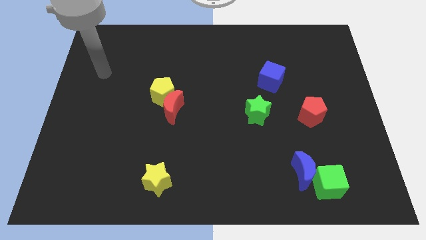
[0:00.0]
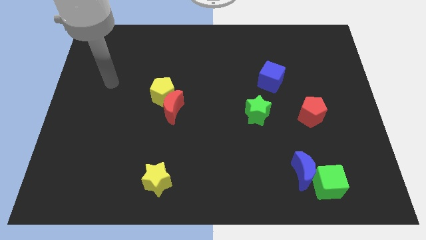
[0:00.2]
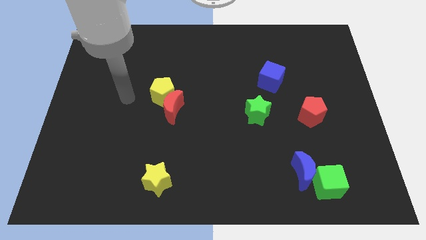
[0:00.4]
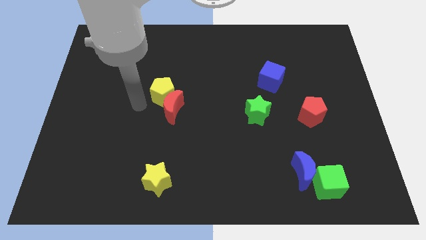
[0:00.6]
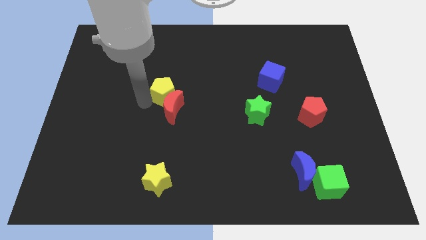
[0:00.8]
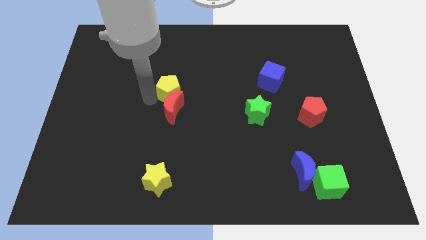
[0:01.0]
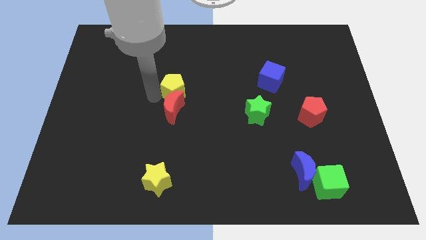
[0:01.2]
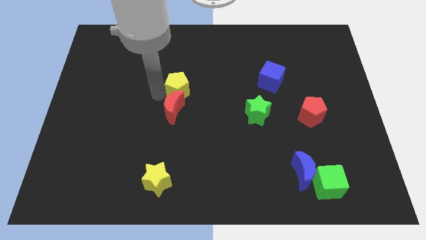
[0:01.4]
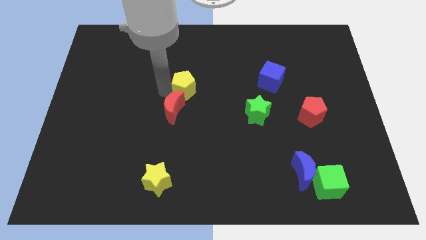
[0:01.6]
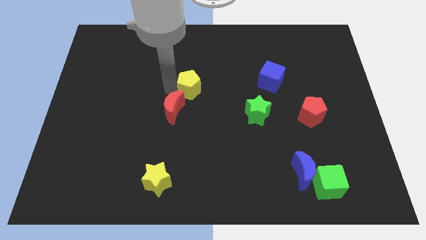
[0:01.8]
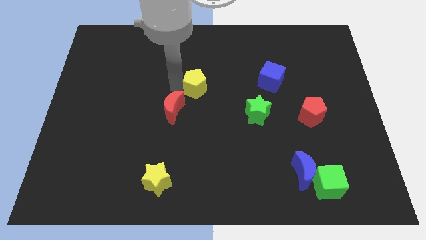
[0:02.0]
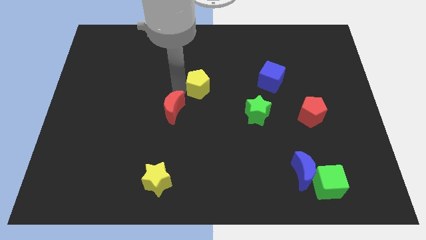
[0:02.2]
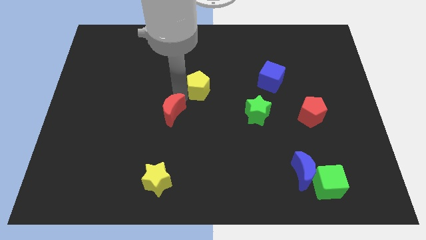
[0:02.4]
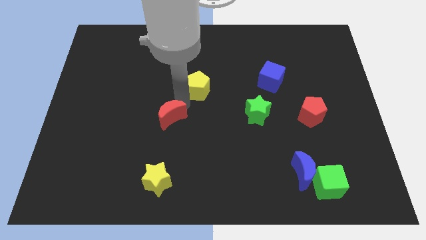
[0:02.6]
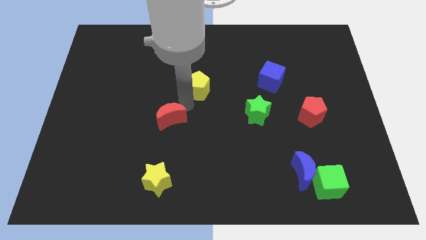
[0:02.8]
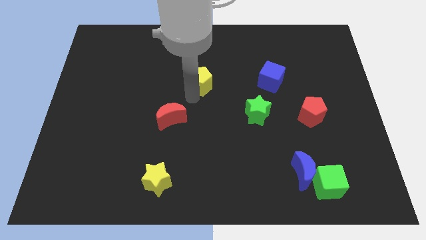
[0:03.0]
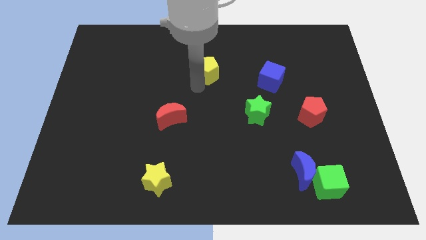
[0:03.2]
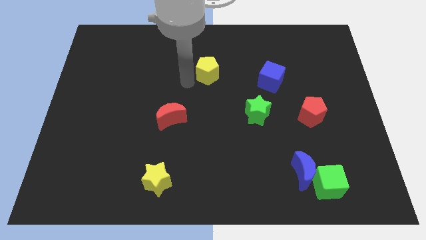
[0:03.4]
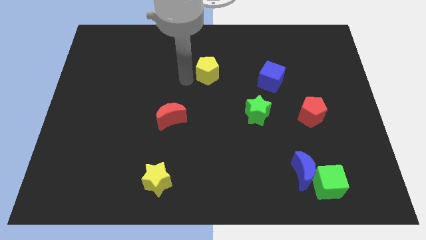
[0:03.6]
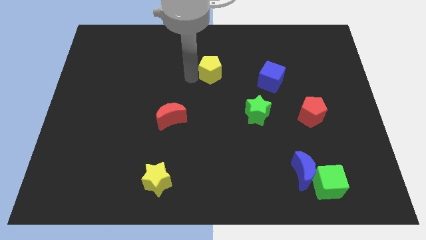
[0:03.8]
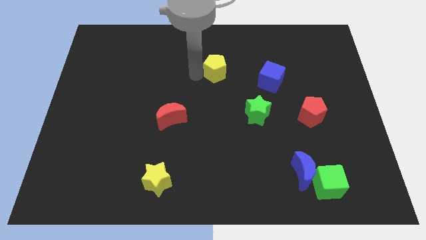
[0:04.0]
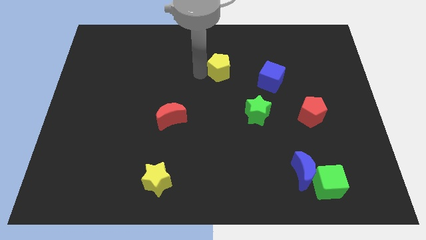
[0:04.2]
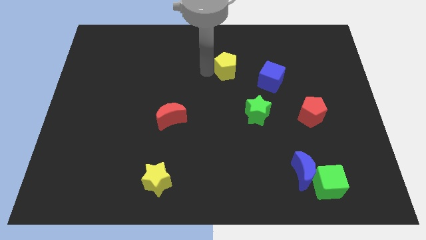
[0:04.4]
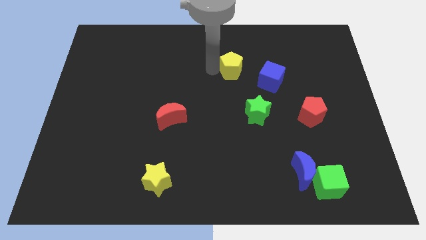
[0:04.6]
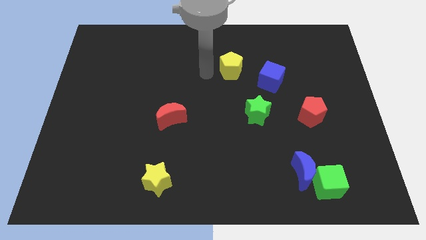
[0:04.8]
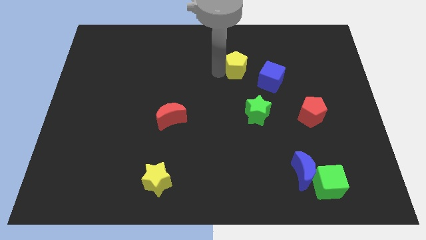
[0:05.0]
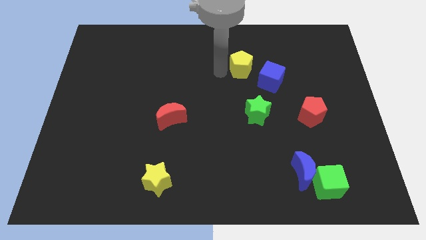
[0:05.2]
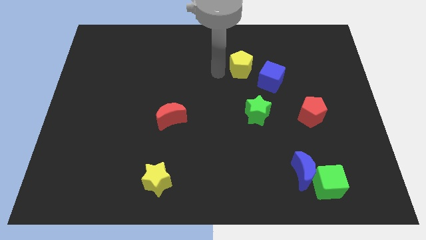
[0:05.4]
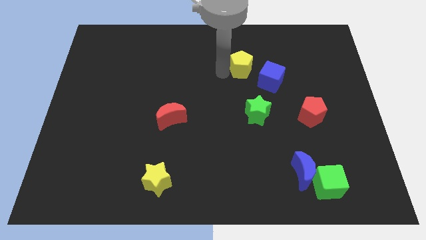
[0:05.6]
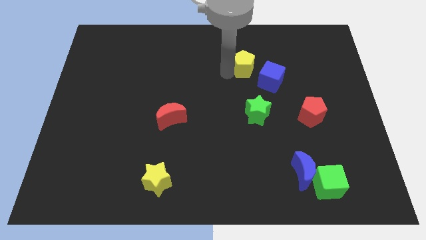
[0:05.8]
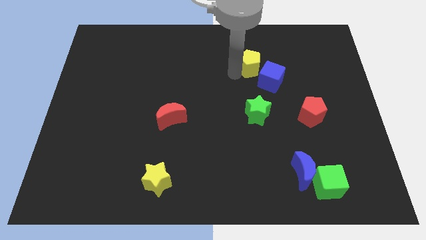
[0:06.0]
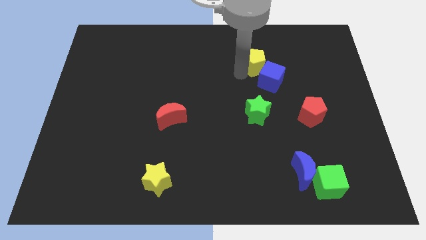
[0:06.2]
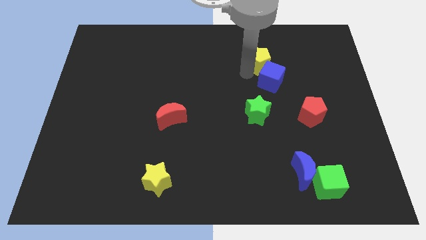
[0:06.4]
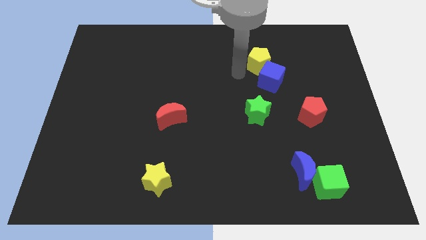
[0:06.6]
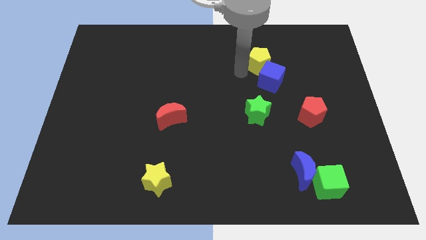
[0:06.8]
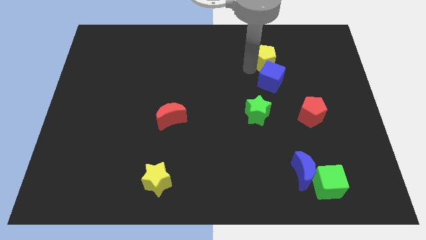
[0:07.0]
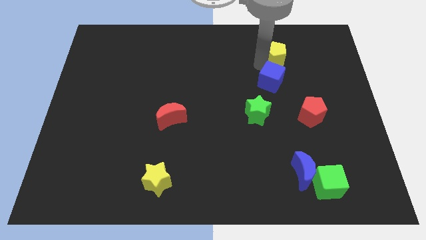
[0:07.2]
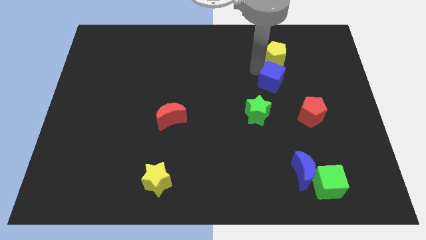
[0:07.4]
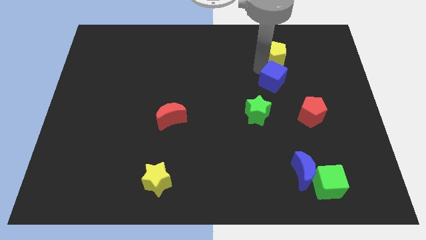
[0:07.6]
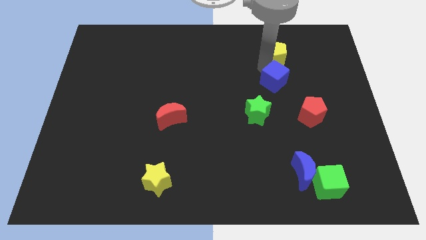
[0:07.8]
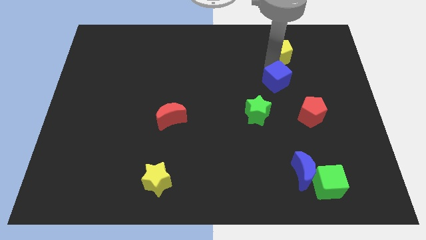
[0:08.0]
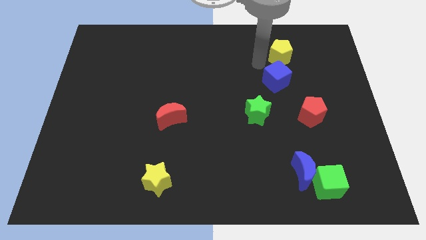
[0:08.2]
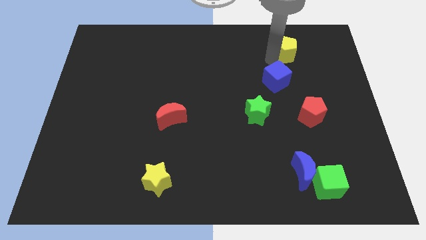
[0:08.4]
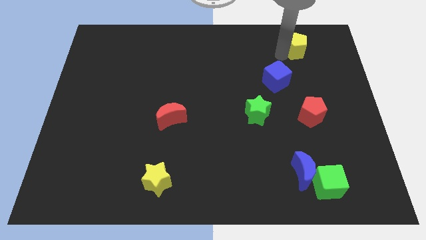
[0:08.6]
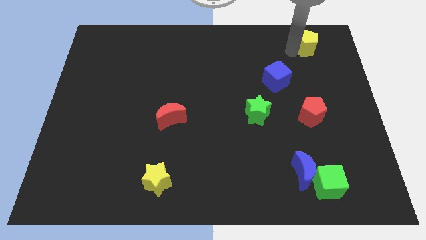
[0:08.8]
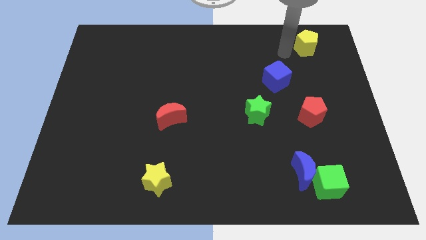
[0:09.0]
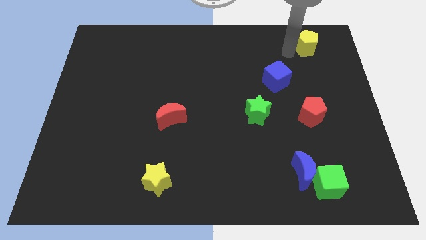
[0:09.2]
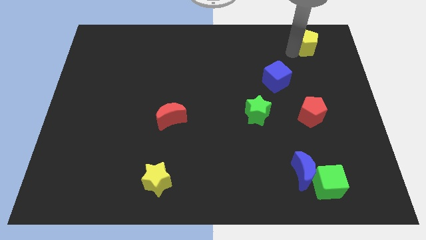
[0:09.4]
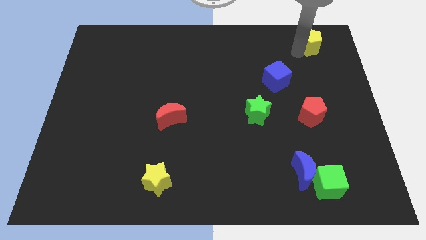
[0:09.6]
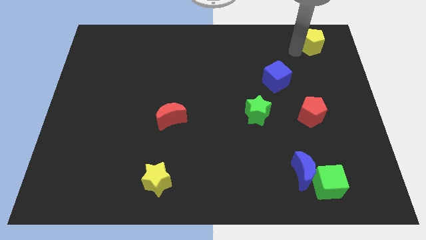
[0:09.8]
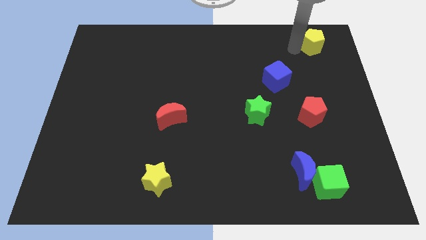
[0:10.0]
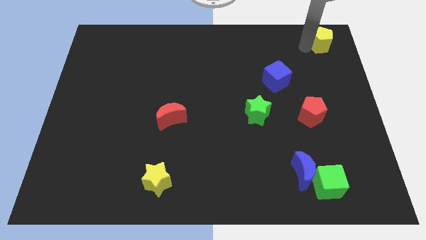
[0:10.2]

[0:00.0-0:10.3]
put the yellow pentagon to the top right of the board

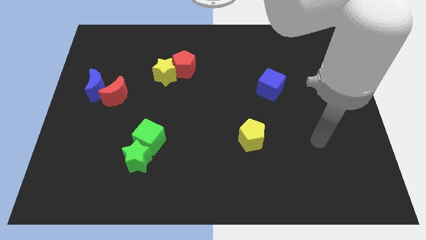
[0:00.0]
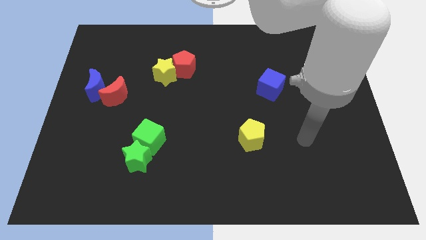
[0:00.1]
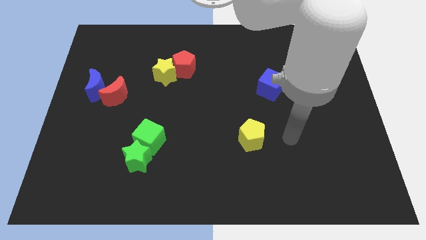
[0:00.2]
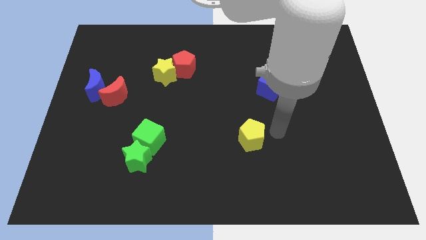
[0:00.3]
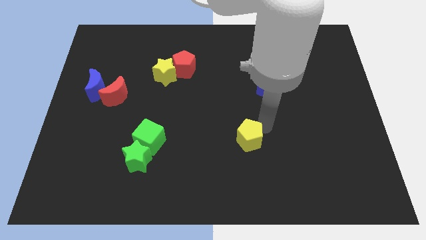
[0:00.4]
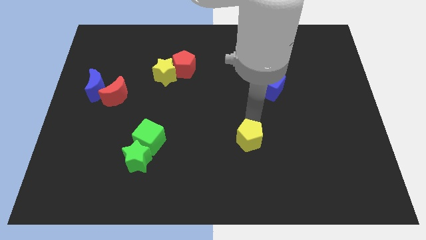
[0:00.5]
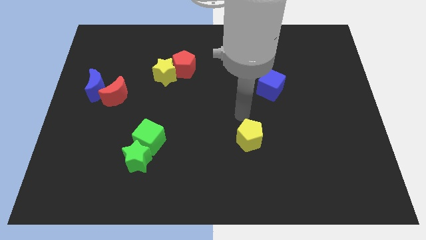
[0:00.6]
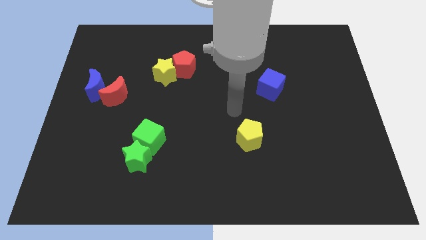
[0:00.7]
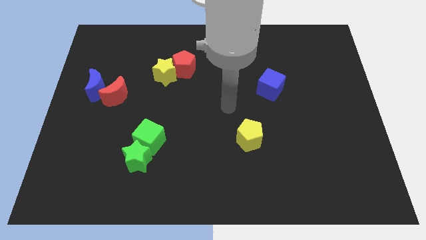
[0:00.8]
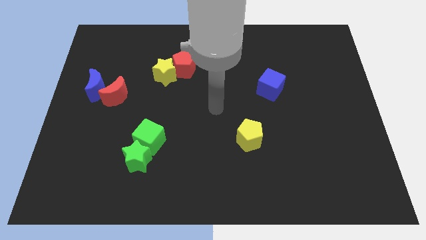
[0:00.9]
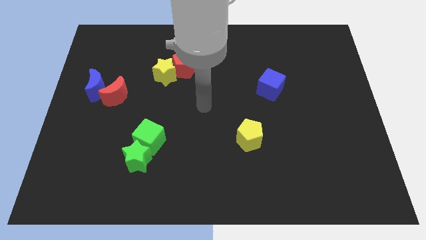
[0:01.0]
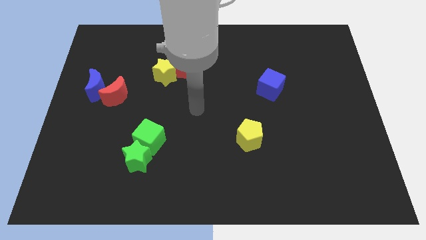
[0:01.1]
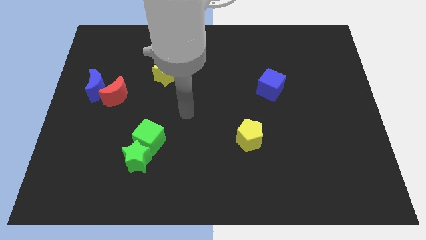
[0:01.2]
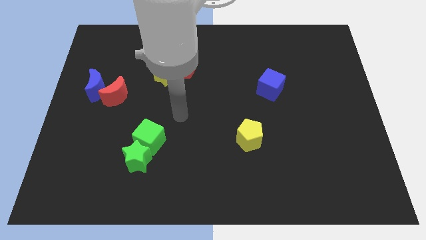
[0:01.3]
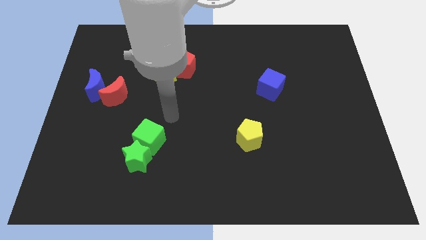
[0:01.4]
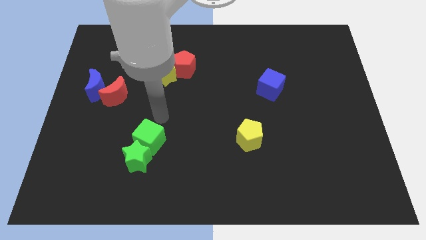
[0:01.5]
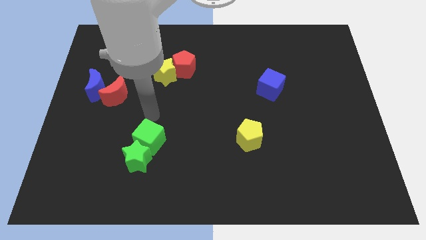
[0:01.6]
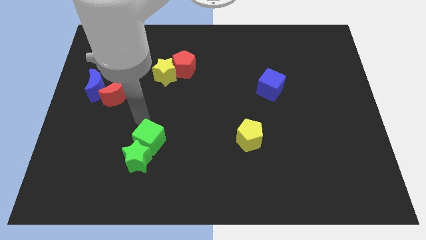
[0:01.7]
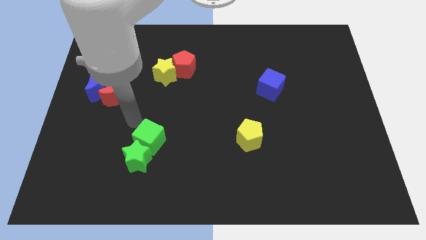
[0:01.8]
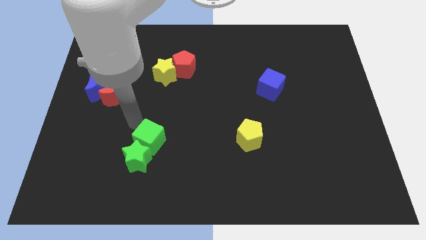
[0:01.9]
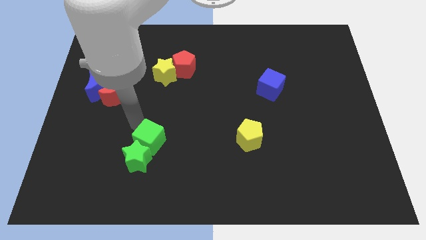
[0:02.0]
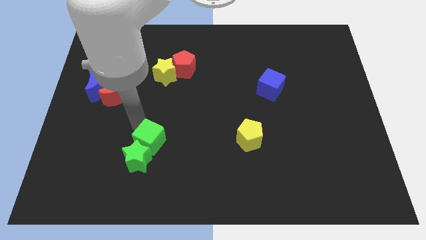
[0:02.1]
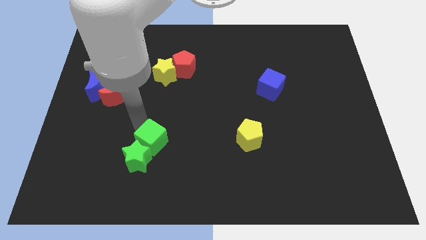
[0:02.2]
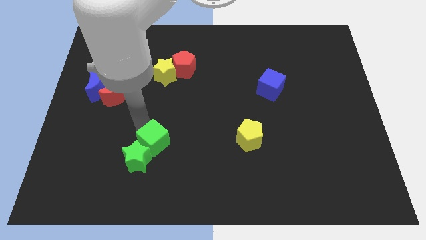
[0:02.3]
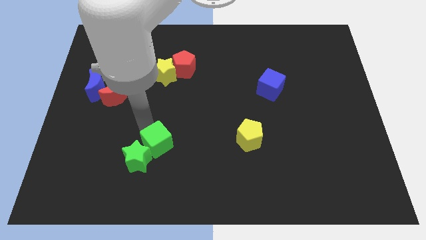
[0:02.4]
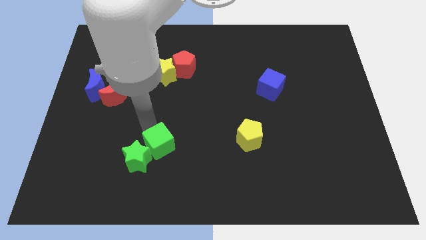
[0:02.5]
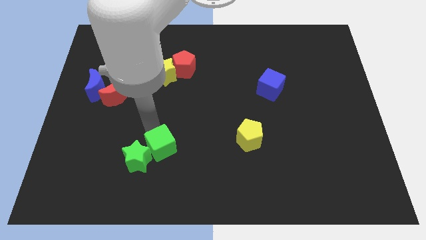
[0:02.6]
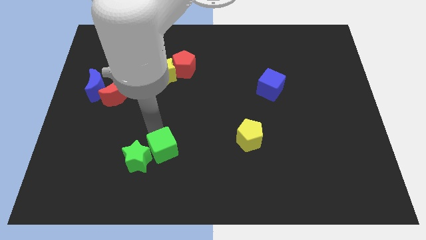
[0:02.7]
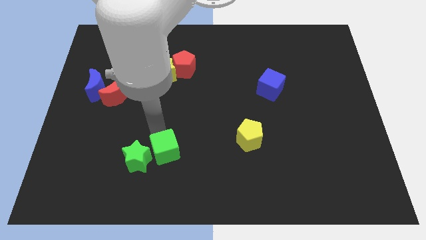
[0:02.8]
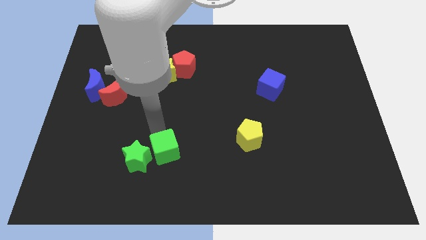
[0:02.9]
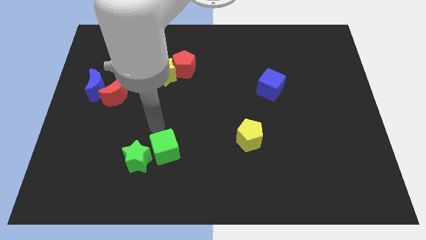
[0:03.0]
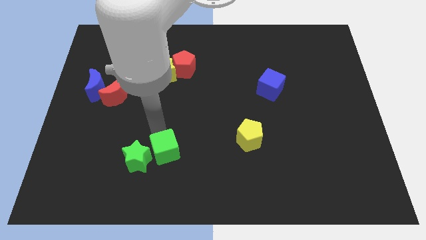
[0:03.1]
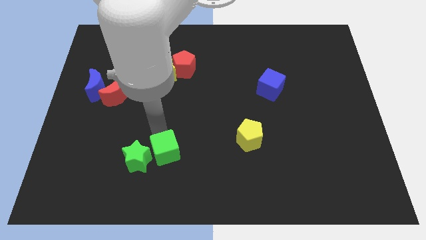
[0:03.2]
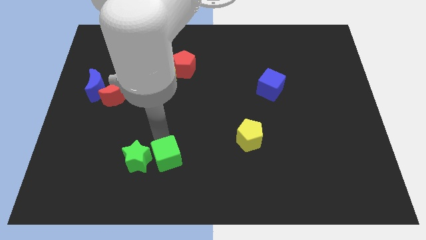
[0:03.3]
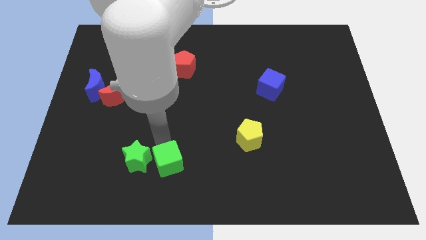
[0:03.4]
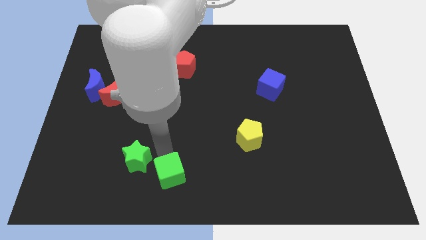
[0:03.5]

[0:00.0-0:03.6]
push the green cube to the bottom side
